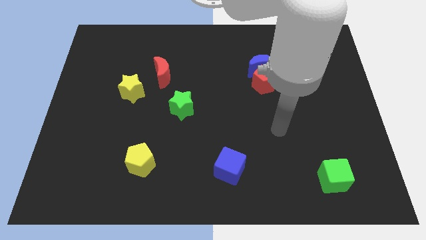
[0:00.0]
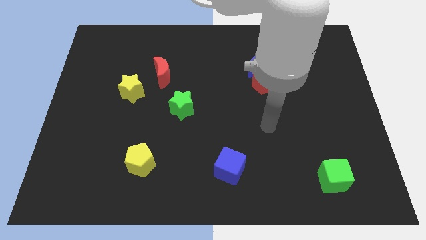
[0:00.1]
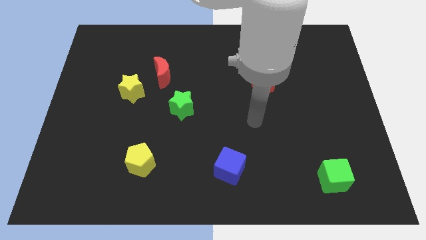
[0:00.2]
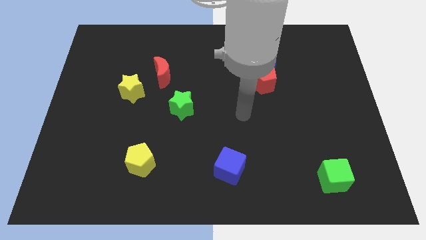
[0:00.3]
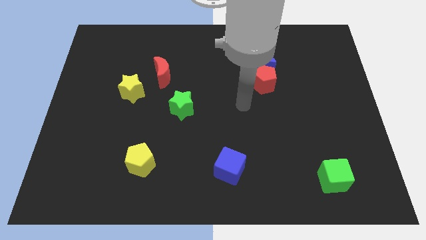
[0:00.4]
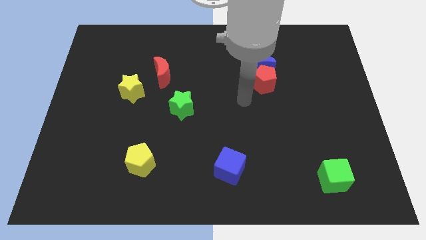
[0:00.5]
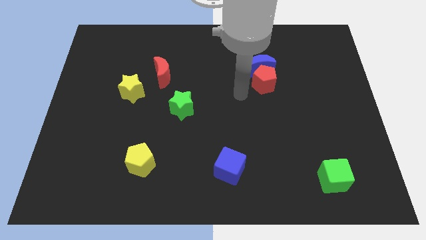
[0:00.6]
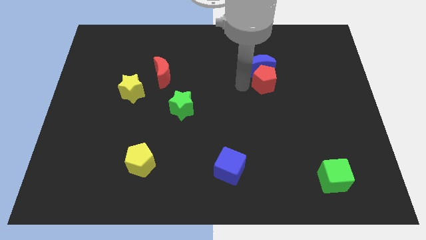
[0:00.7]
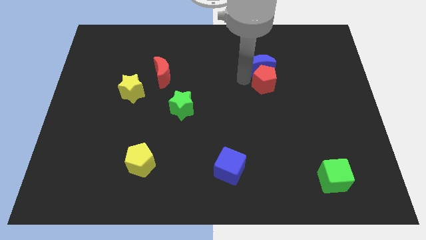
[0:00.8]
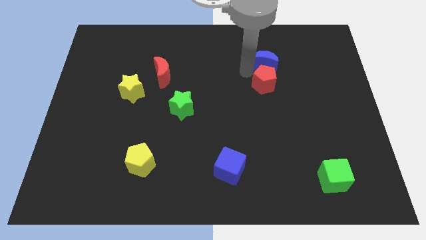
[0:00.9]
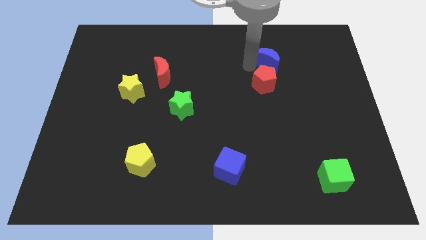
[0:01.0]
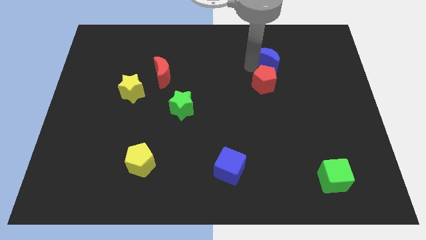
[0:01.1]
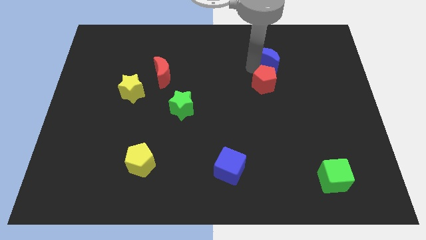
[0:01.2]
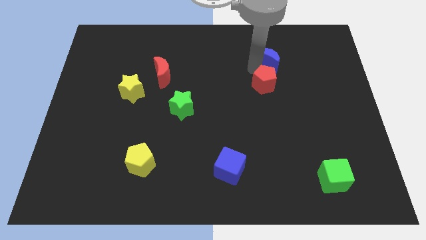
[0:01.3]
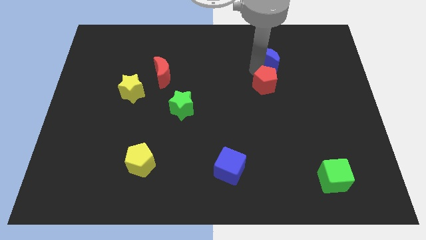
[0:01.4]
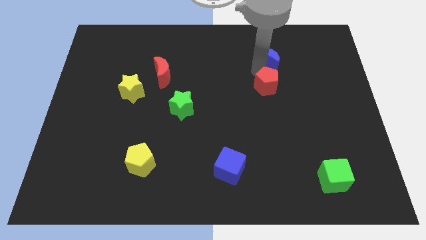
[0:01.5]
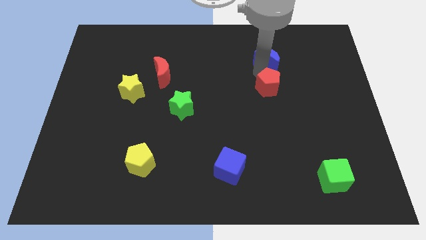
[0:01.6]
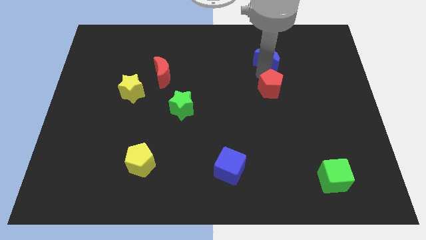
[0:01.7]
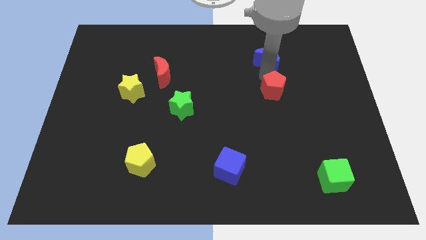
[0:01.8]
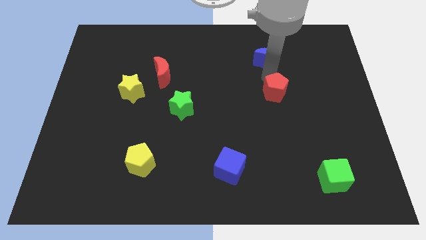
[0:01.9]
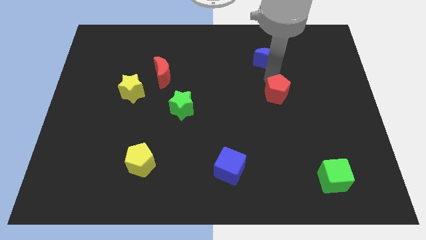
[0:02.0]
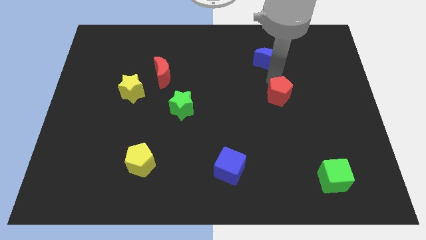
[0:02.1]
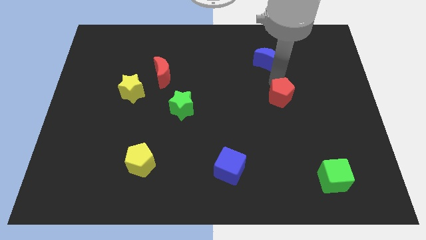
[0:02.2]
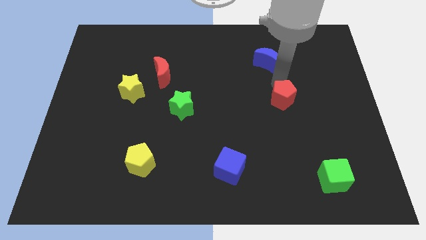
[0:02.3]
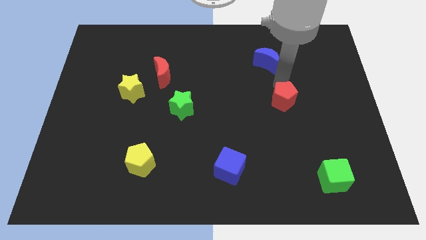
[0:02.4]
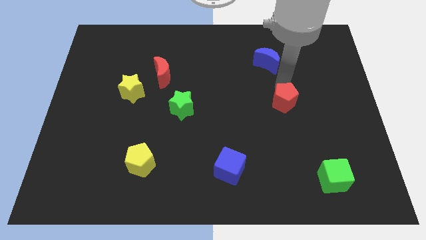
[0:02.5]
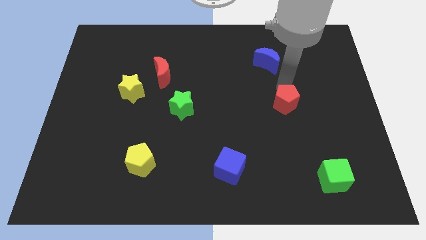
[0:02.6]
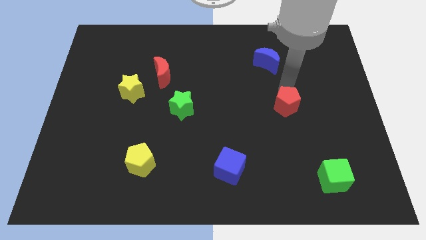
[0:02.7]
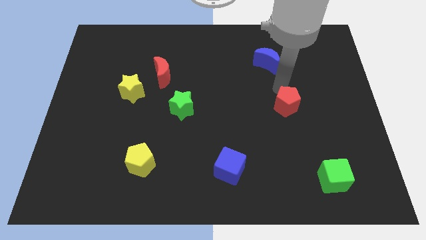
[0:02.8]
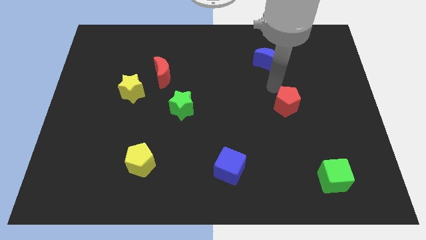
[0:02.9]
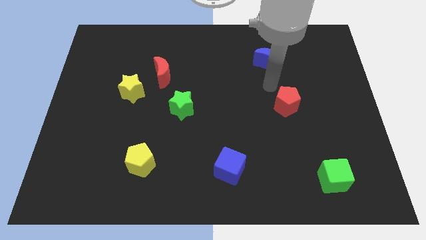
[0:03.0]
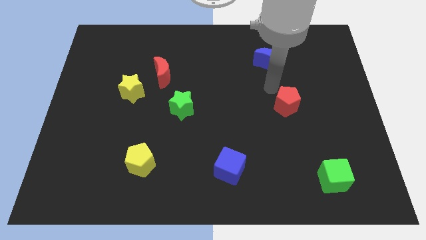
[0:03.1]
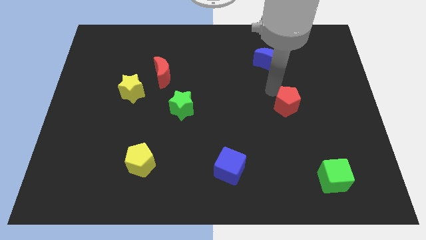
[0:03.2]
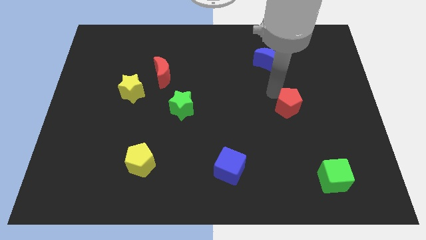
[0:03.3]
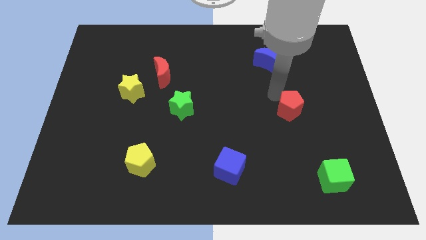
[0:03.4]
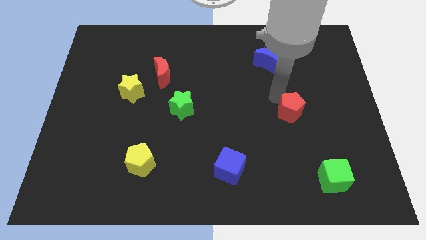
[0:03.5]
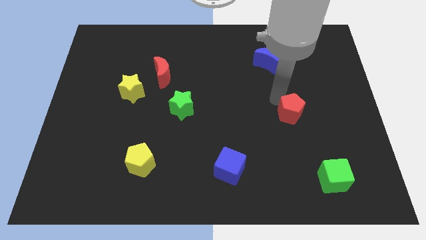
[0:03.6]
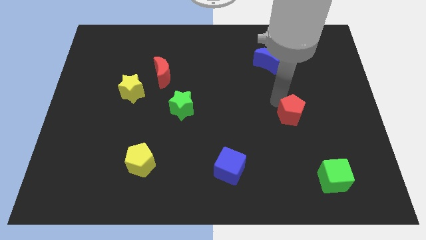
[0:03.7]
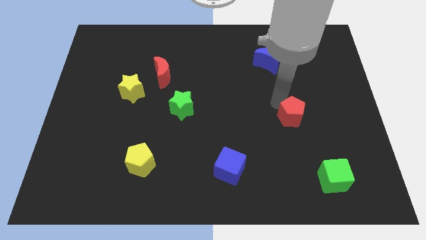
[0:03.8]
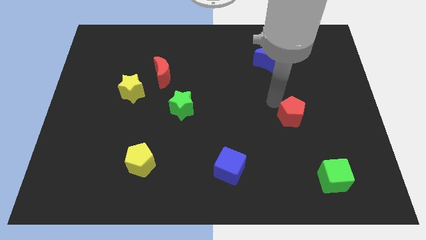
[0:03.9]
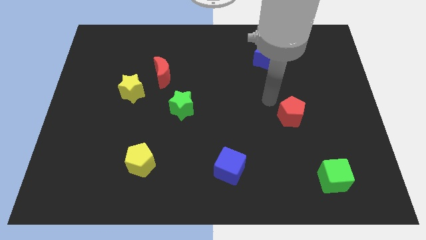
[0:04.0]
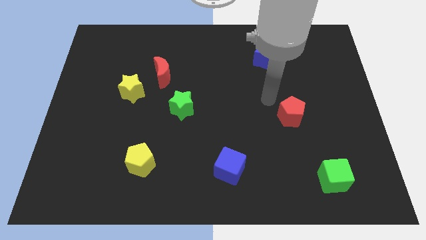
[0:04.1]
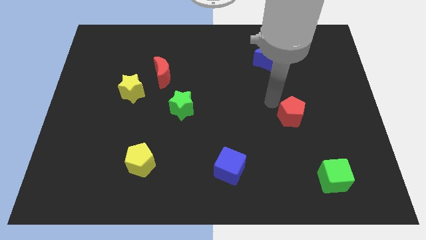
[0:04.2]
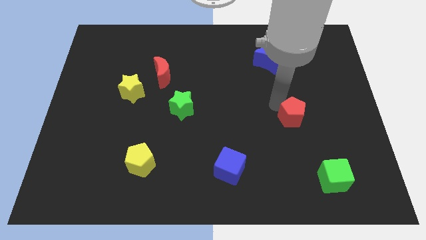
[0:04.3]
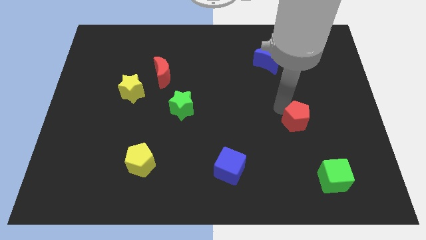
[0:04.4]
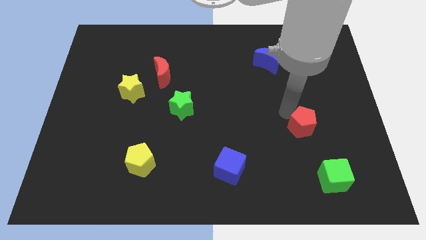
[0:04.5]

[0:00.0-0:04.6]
slide the red pentagon to the top side of the green cube

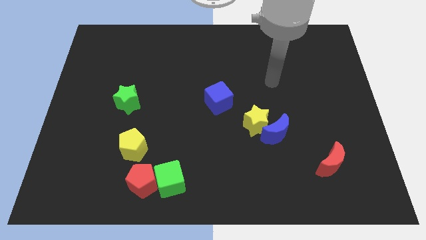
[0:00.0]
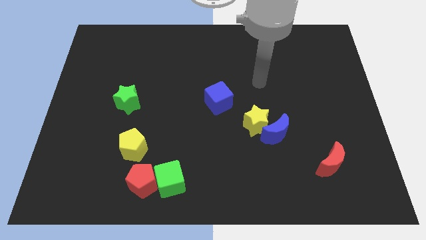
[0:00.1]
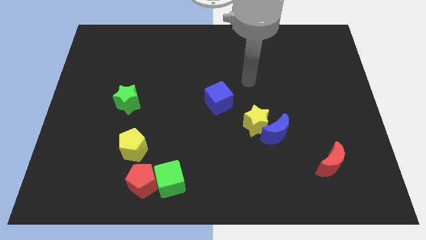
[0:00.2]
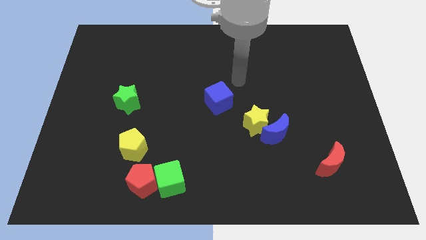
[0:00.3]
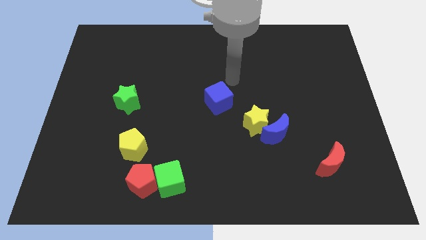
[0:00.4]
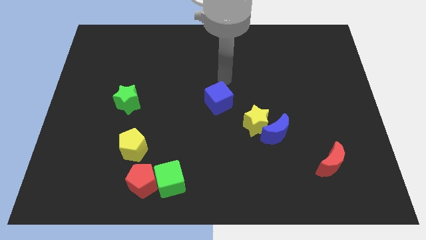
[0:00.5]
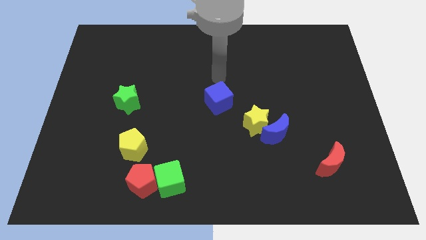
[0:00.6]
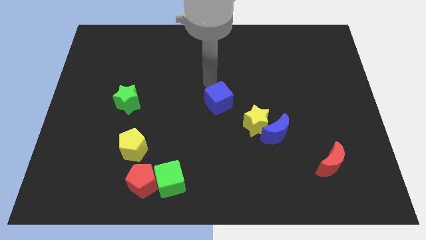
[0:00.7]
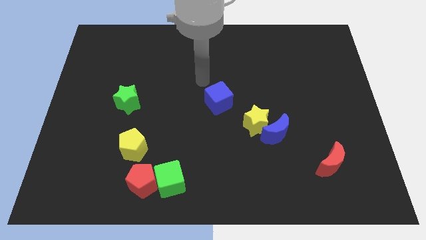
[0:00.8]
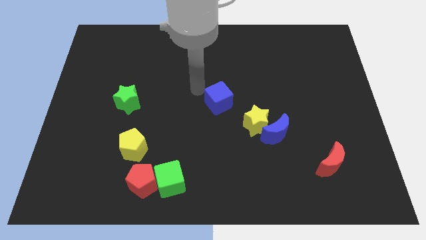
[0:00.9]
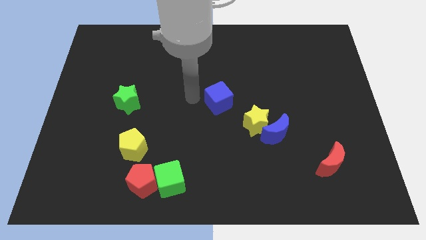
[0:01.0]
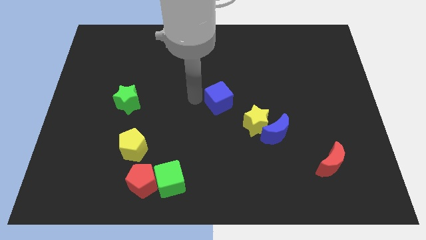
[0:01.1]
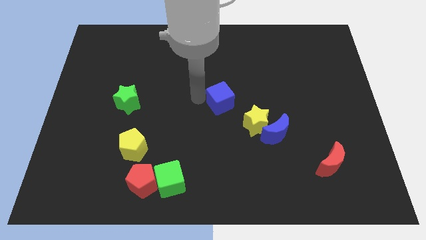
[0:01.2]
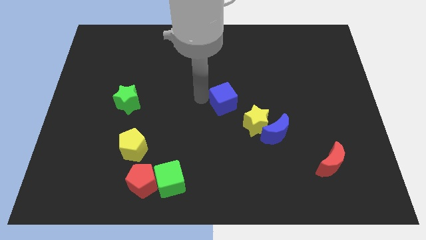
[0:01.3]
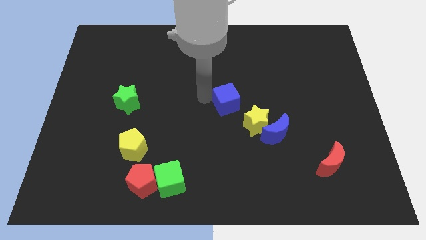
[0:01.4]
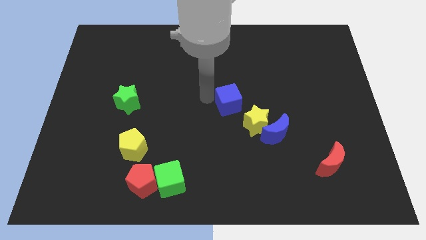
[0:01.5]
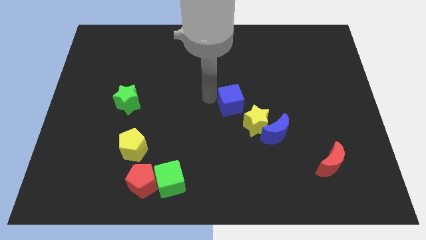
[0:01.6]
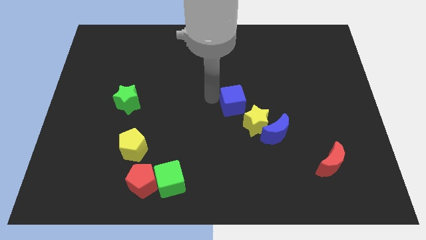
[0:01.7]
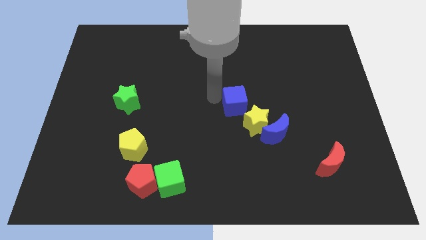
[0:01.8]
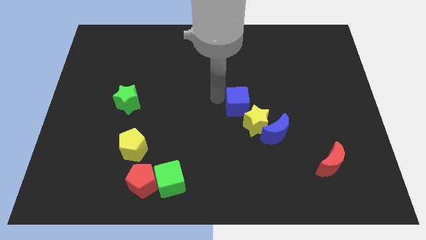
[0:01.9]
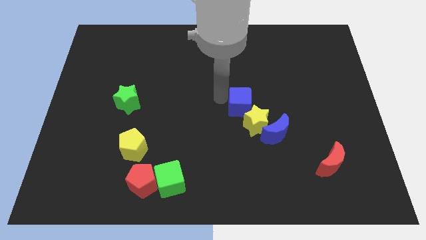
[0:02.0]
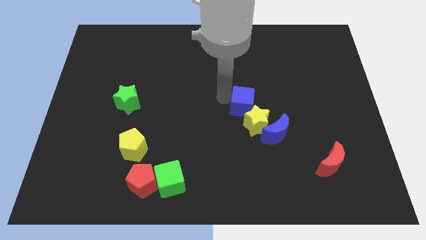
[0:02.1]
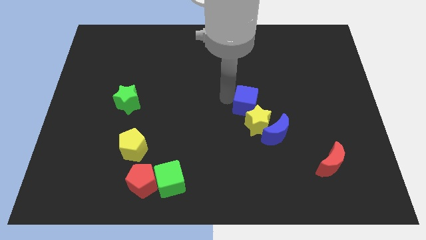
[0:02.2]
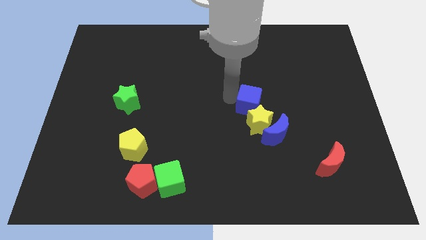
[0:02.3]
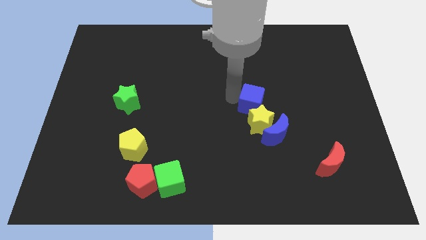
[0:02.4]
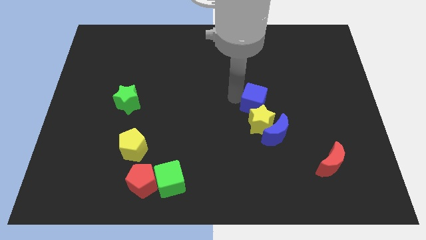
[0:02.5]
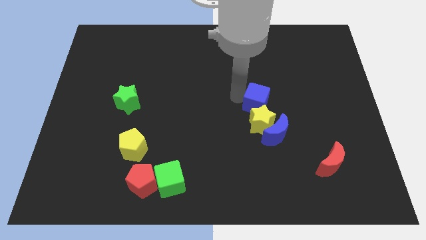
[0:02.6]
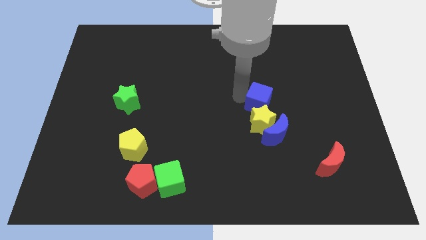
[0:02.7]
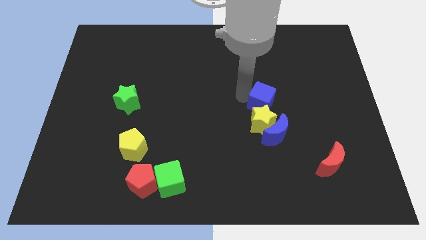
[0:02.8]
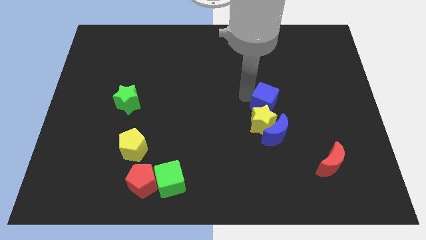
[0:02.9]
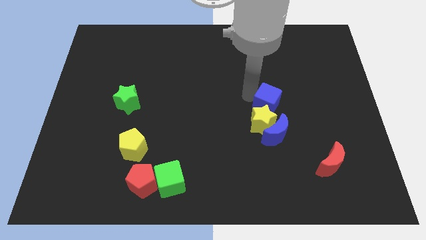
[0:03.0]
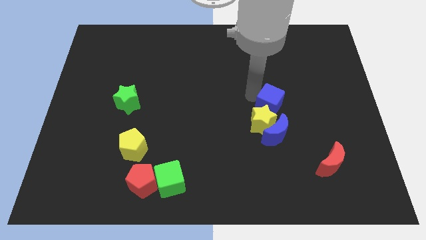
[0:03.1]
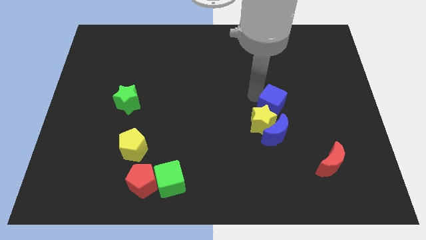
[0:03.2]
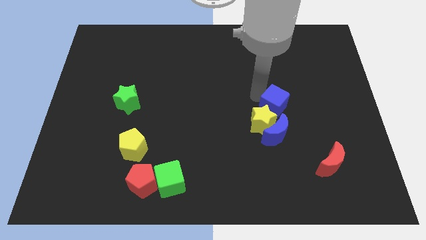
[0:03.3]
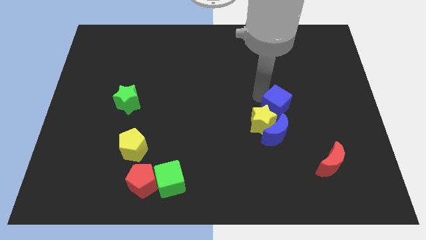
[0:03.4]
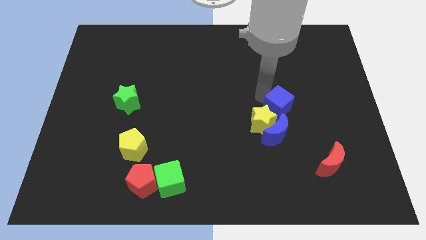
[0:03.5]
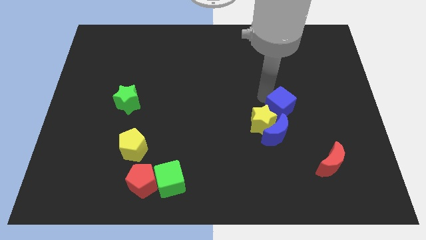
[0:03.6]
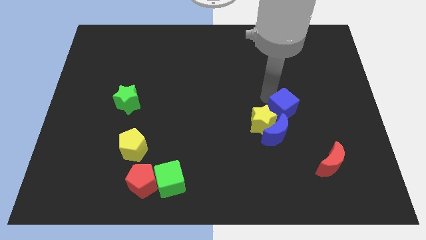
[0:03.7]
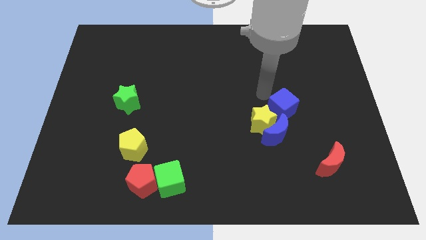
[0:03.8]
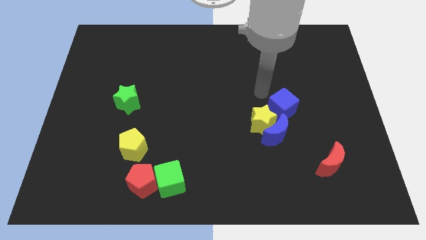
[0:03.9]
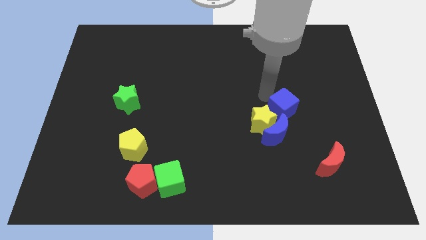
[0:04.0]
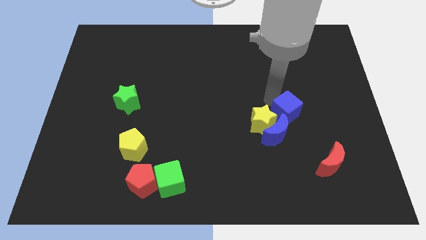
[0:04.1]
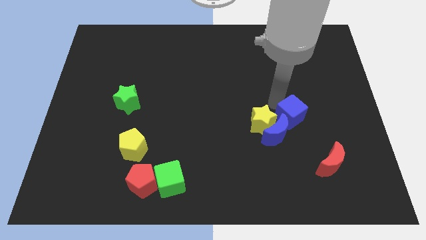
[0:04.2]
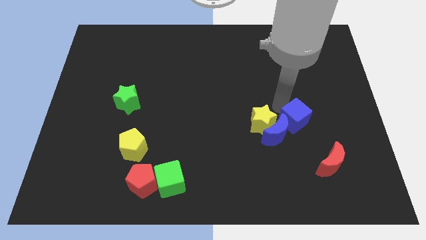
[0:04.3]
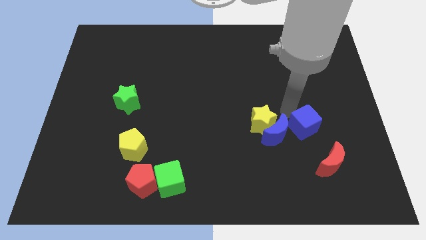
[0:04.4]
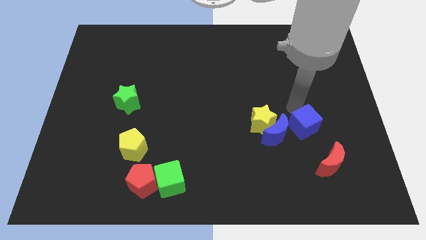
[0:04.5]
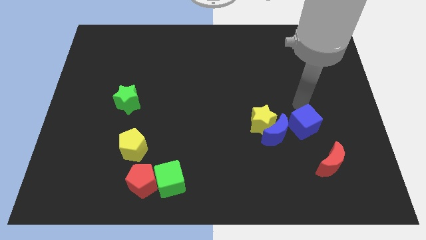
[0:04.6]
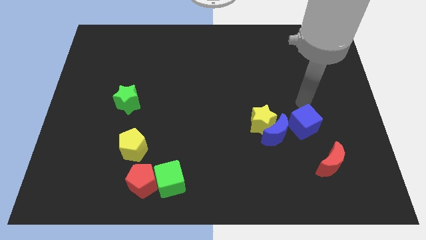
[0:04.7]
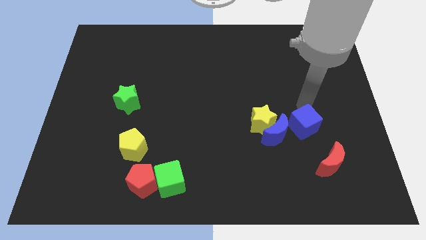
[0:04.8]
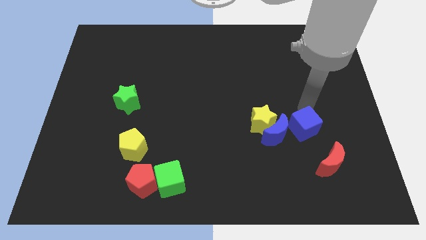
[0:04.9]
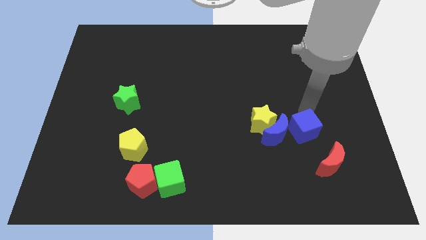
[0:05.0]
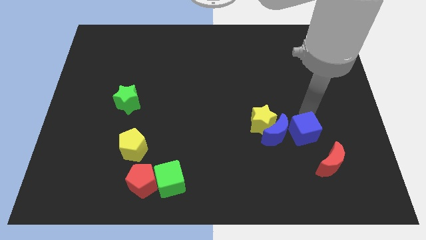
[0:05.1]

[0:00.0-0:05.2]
put the blue cube to the bottom right of the blue moon
